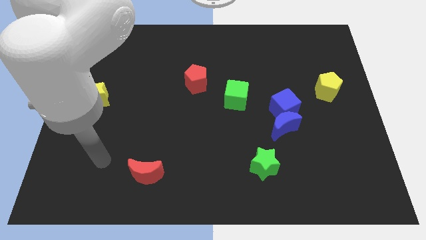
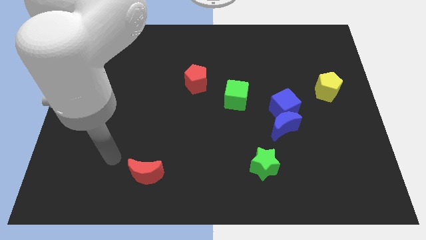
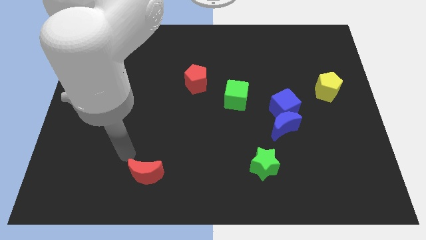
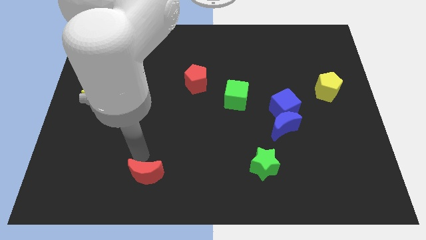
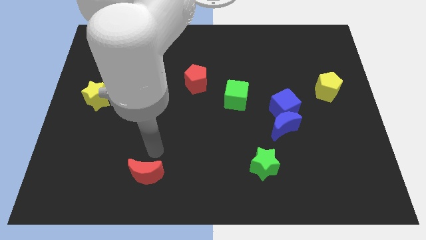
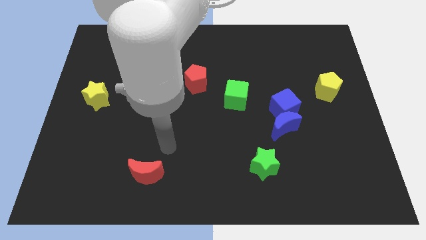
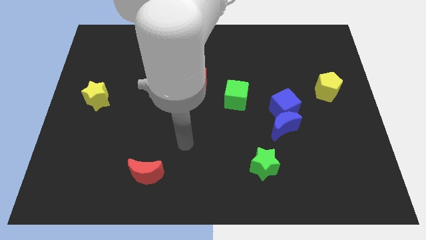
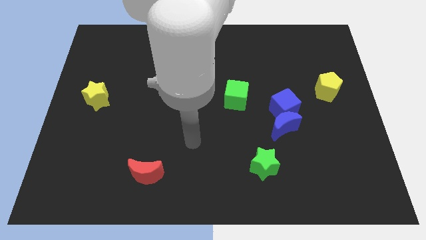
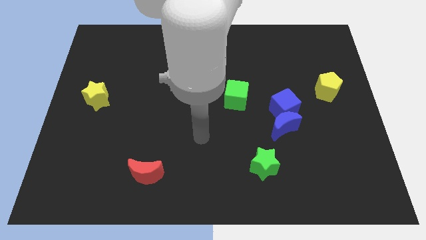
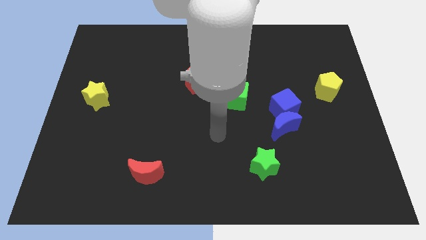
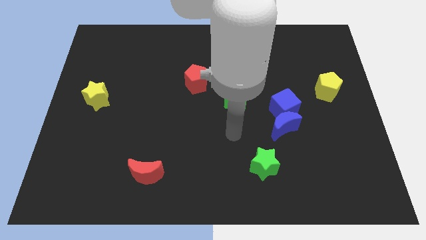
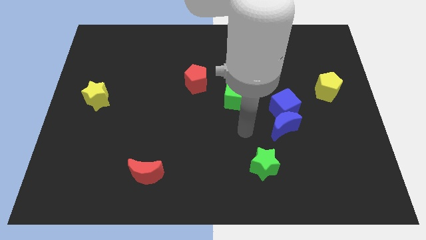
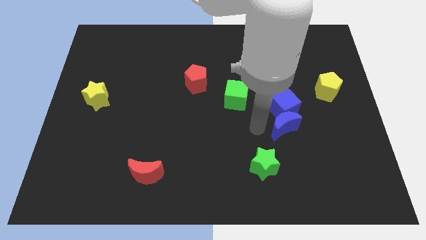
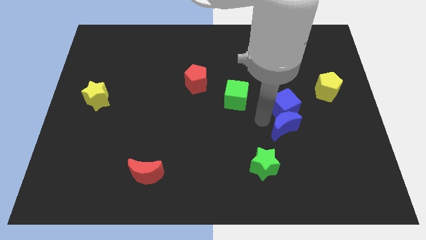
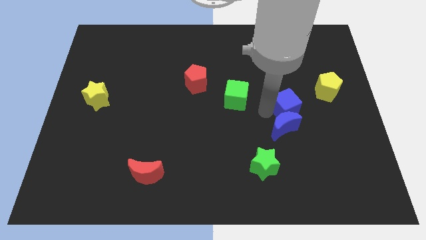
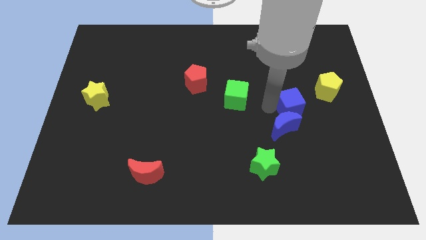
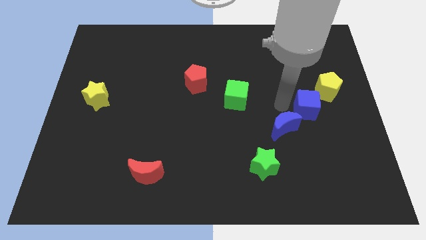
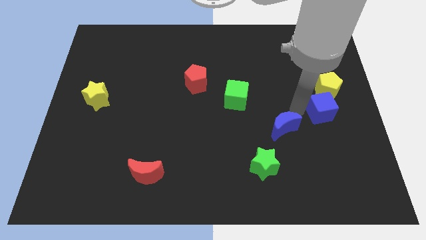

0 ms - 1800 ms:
separate the blue moon from the blue cube

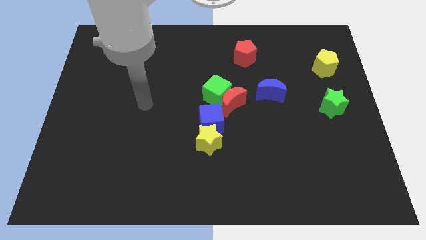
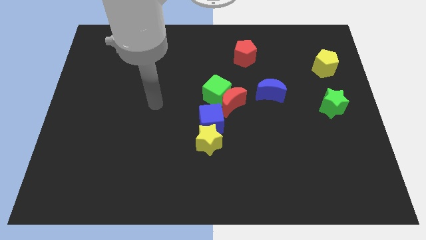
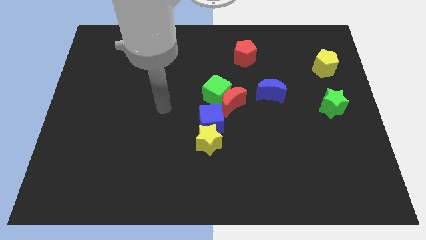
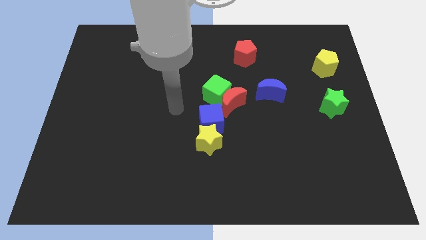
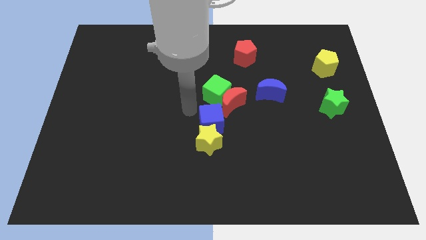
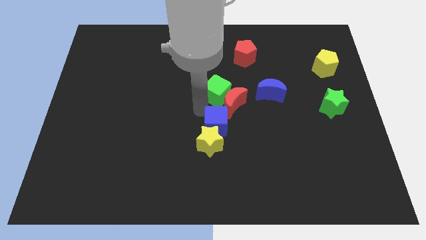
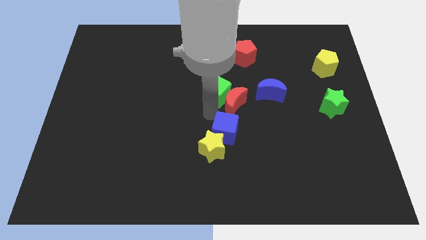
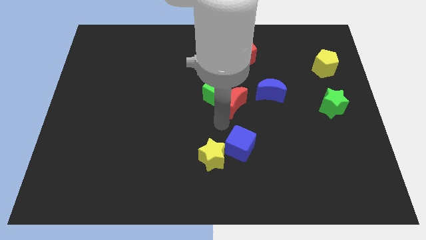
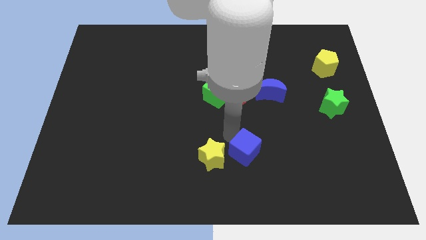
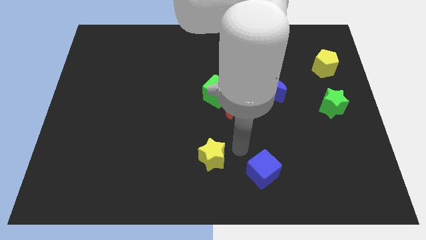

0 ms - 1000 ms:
separate the yellow star from the blue cube

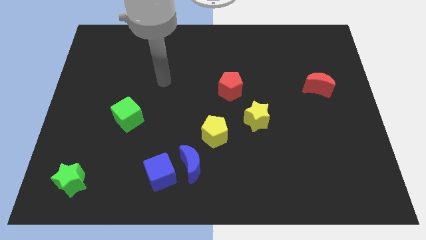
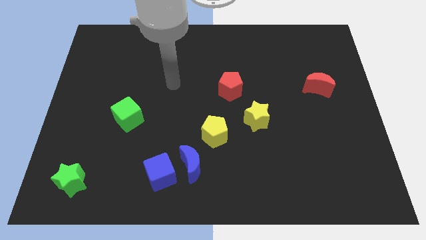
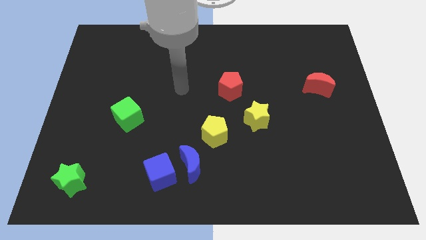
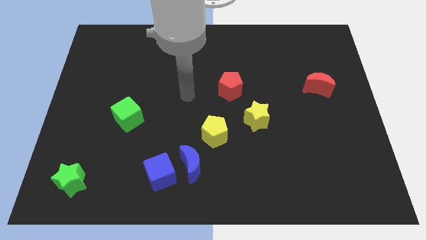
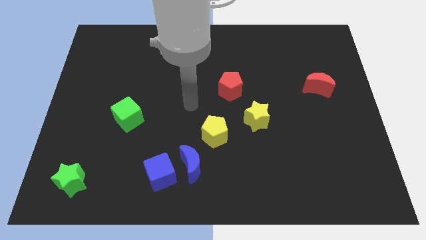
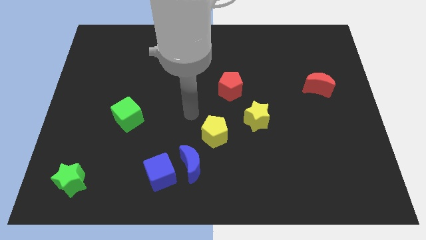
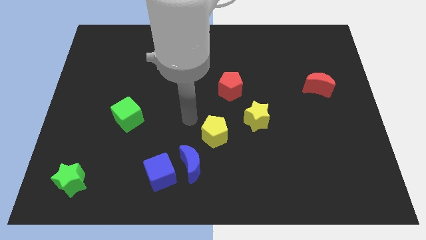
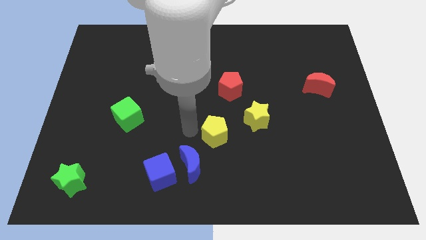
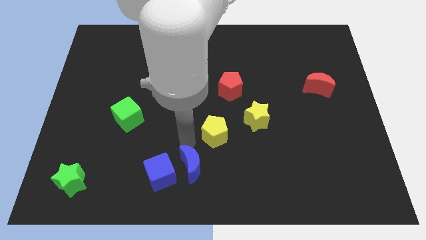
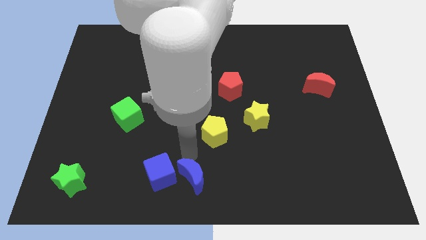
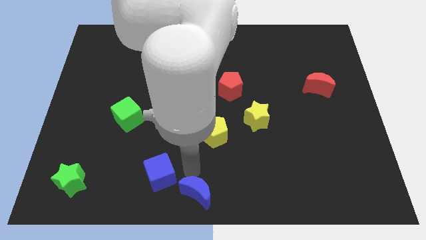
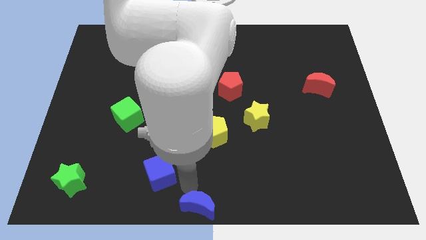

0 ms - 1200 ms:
pull the blue cube apart from the blue moon

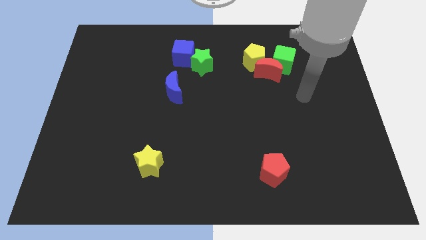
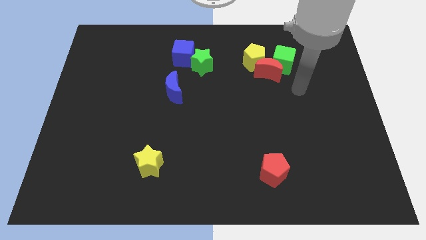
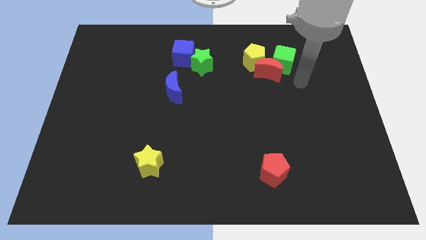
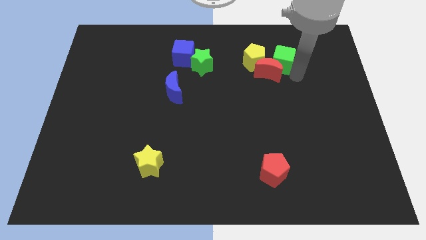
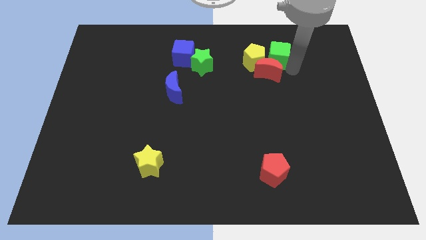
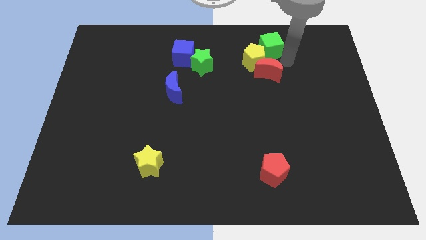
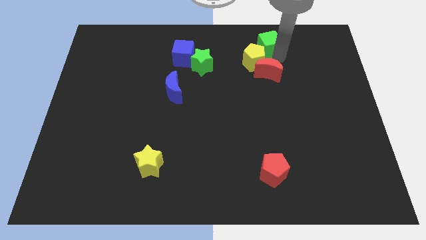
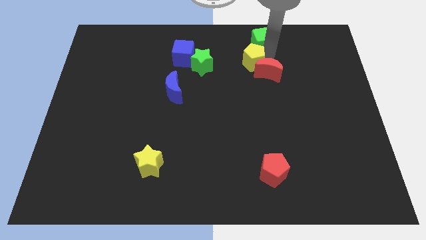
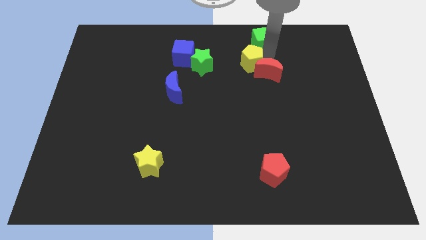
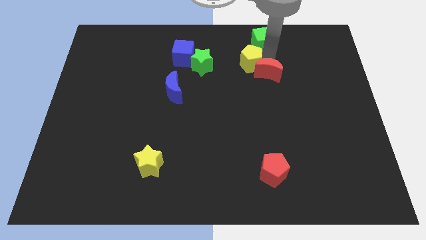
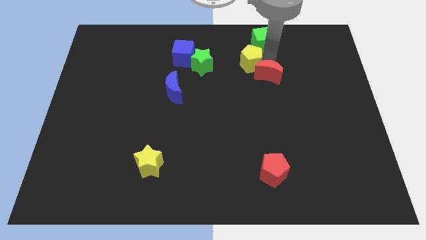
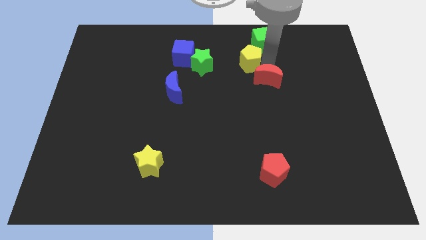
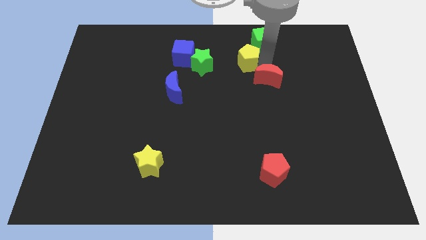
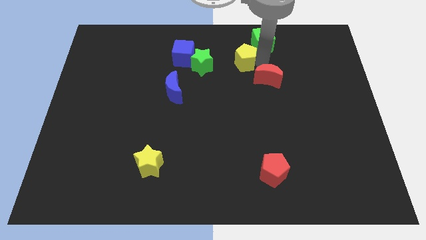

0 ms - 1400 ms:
move the red moon away from the yellow pentagon and green cube

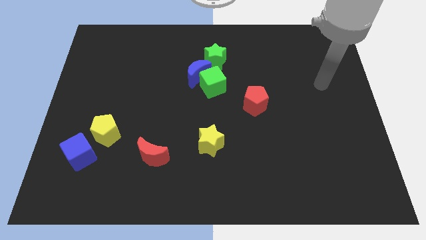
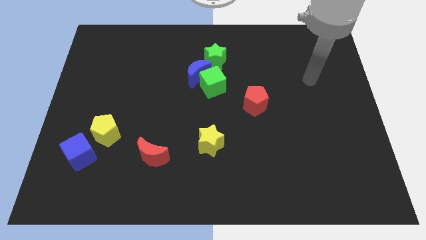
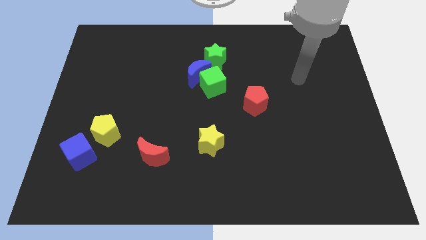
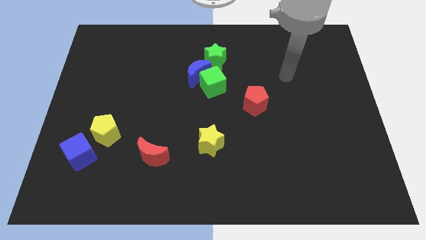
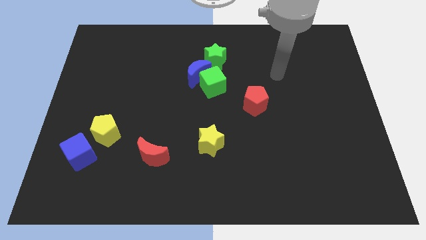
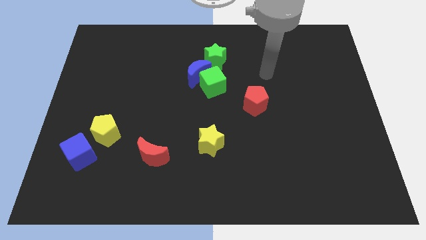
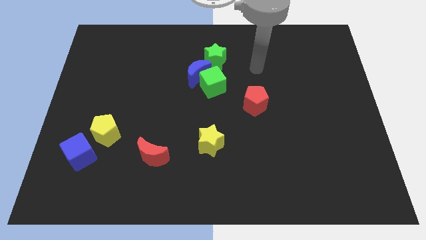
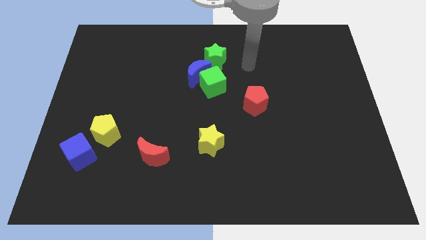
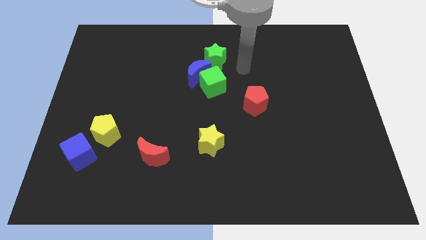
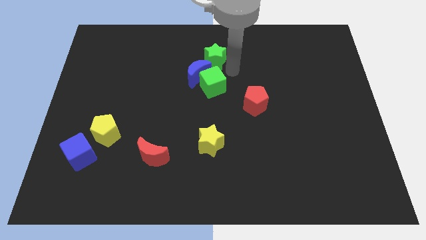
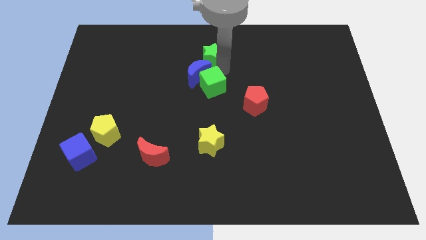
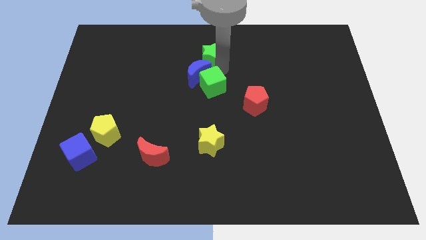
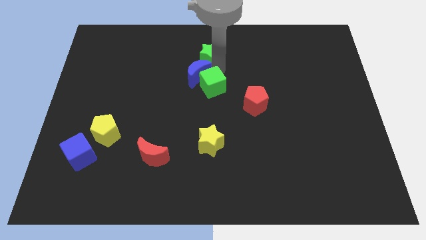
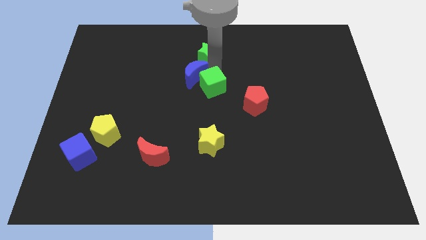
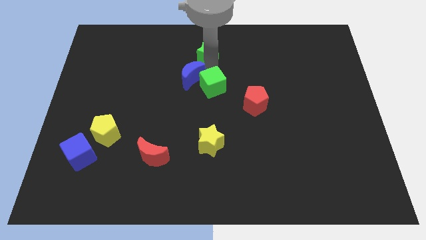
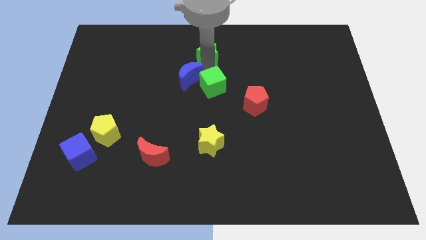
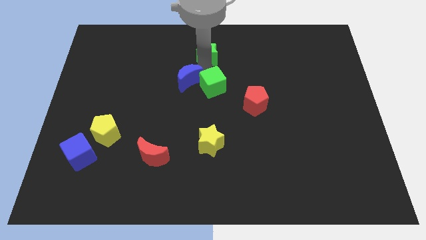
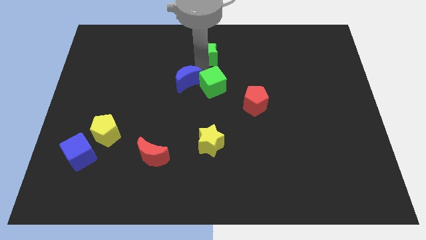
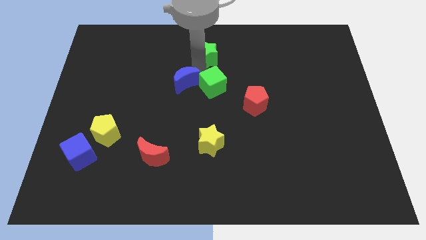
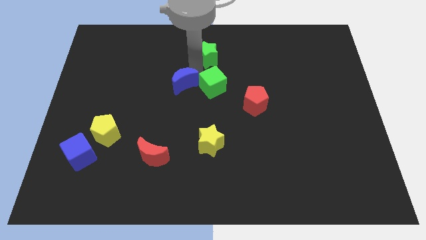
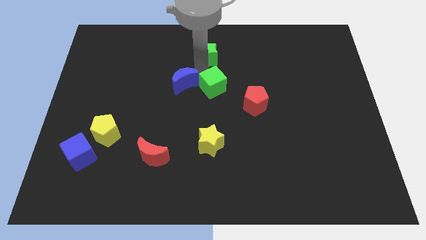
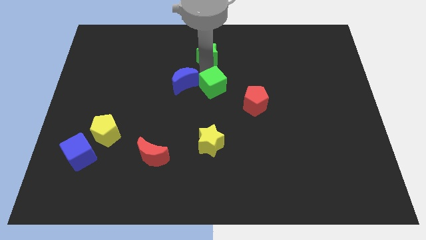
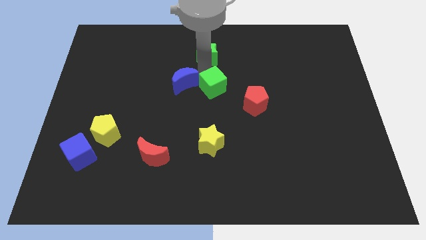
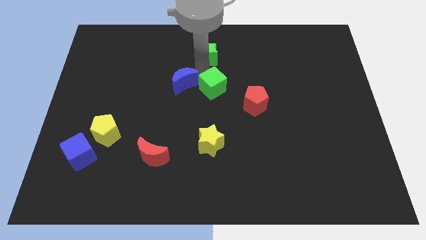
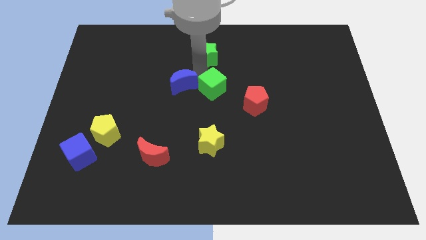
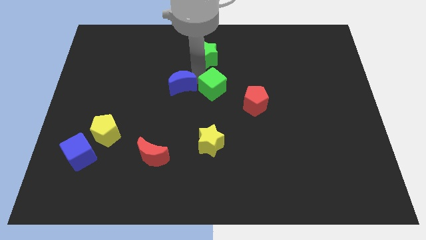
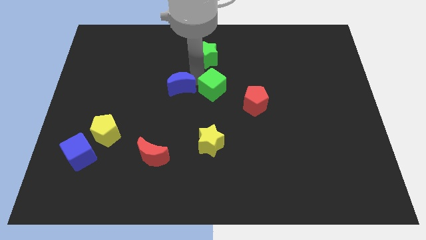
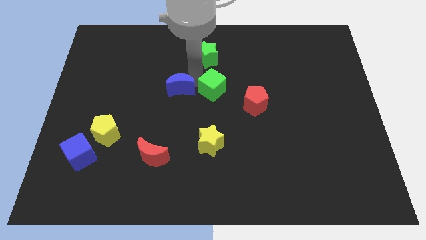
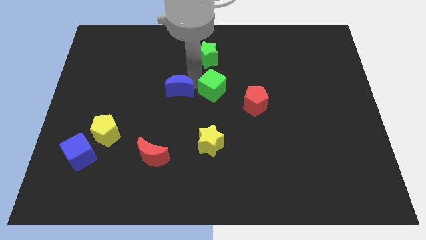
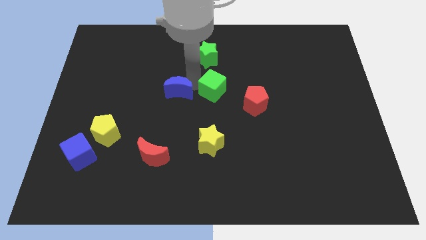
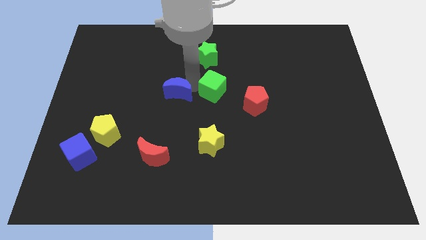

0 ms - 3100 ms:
separate the blue moon from the green cube and green star

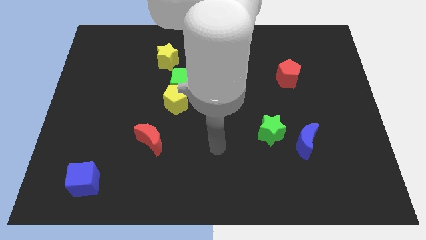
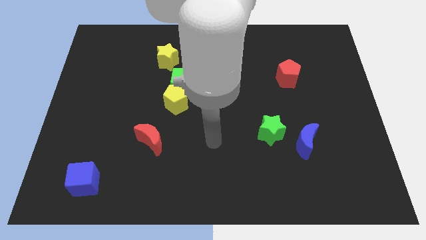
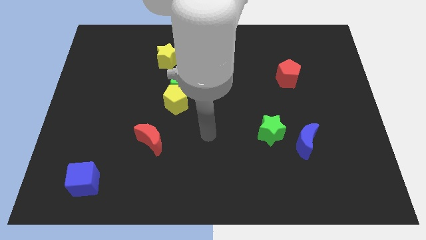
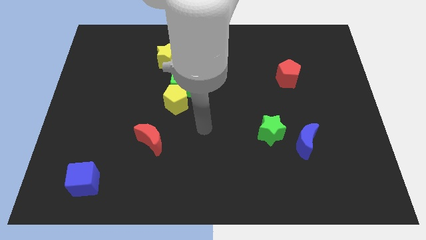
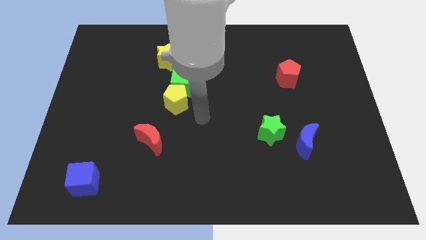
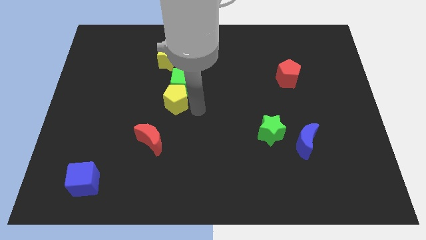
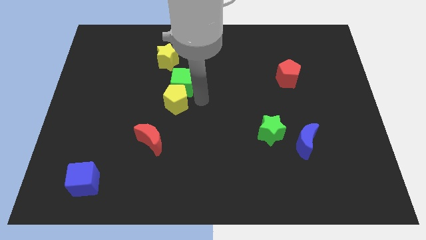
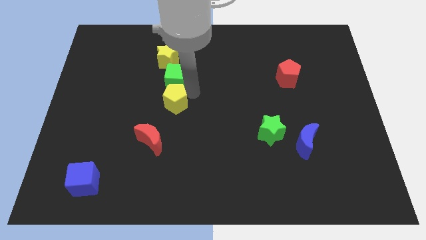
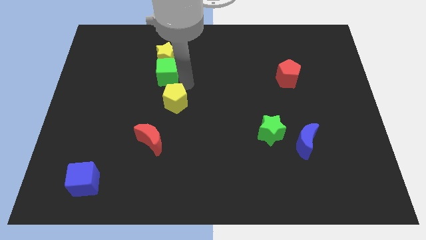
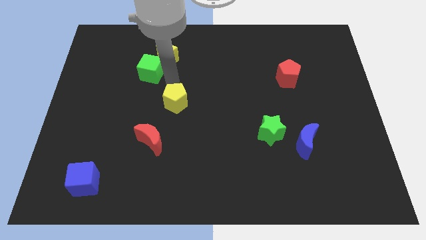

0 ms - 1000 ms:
pull the yellow pentagon apart from the green cube
